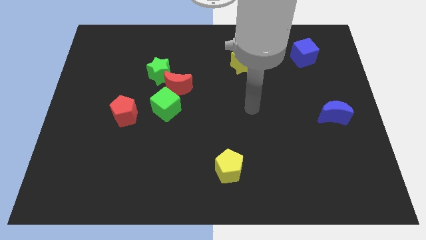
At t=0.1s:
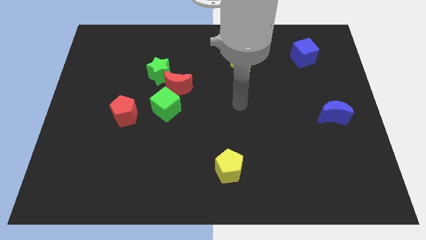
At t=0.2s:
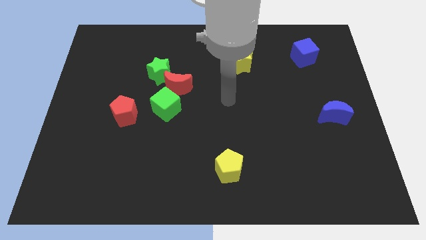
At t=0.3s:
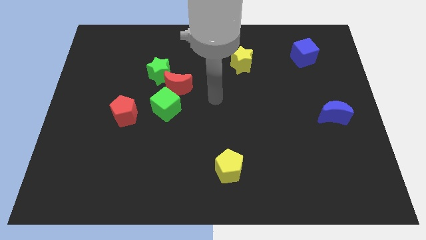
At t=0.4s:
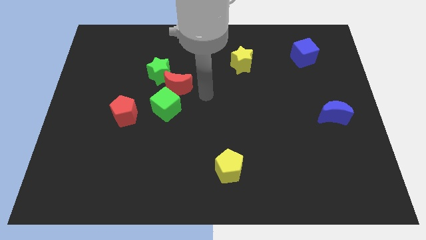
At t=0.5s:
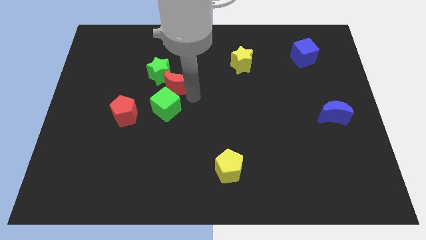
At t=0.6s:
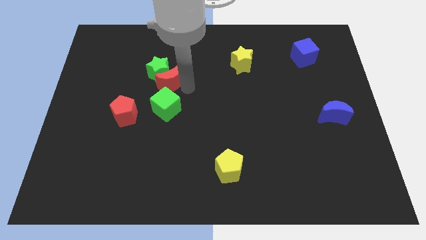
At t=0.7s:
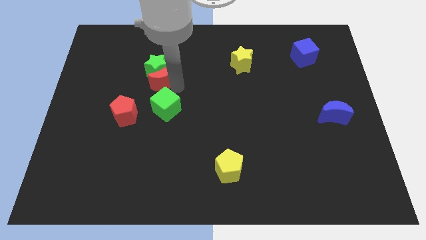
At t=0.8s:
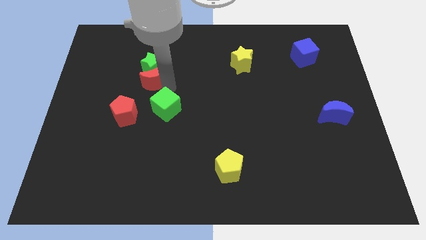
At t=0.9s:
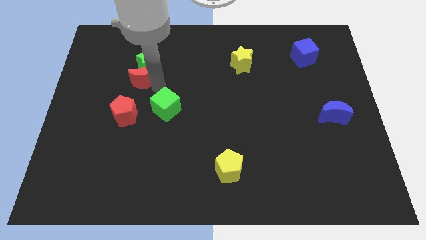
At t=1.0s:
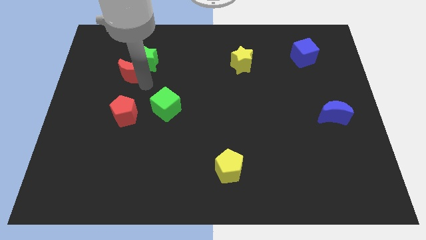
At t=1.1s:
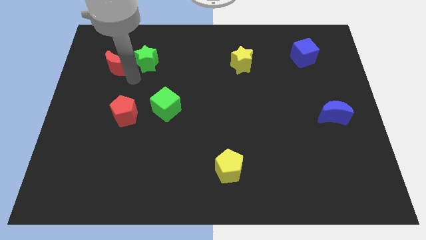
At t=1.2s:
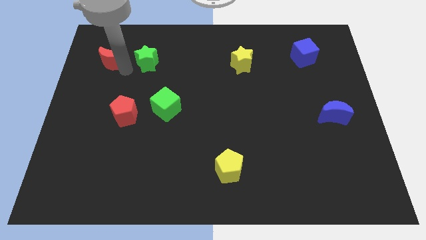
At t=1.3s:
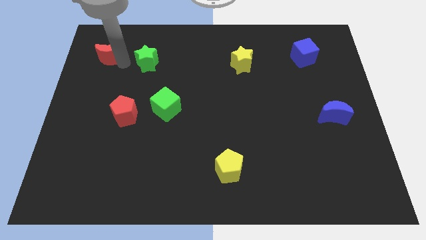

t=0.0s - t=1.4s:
pull the green star apart from the red moon

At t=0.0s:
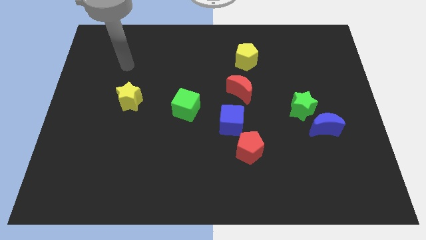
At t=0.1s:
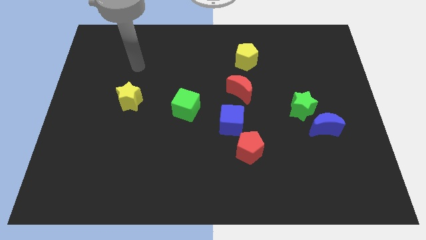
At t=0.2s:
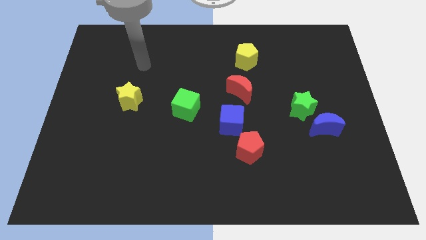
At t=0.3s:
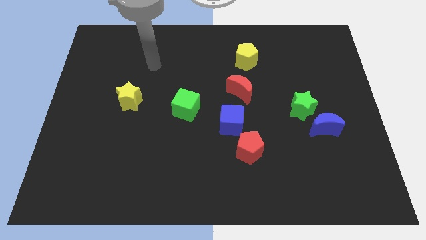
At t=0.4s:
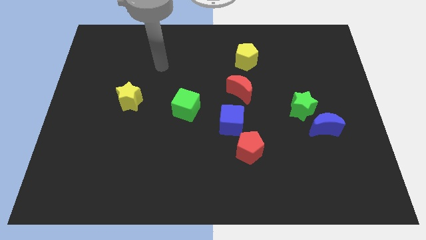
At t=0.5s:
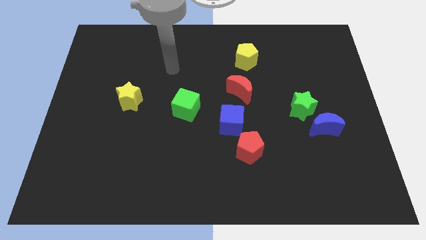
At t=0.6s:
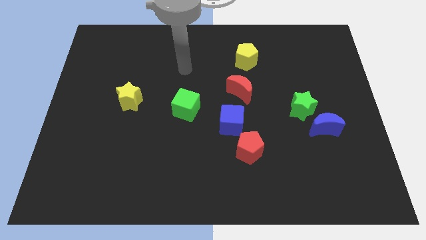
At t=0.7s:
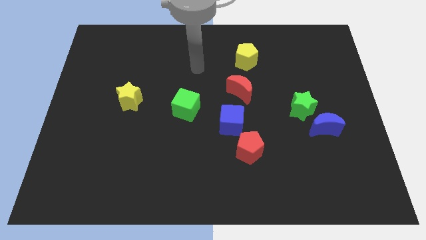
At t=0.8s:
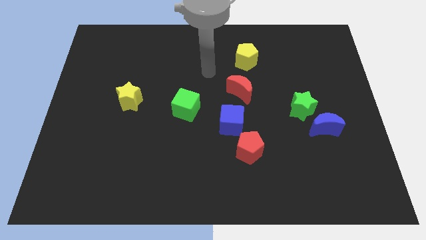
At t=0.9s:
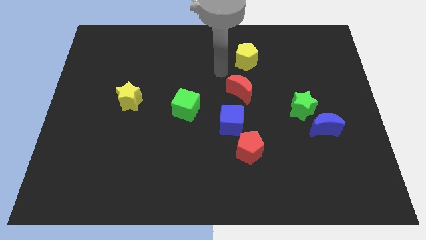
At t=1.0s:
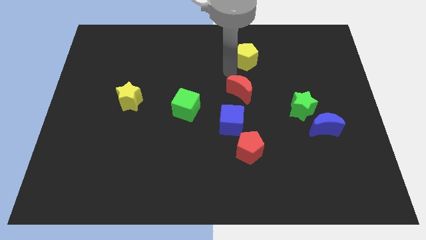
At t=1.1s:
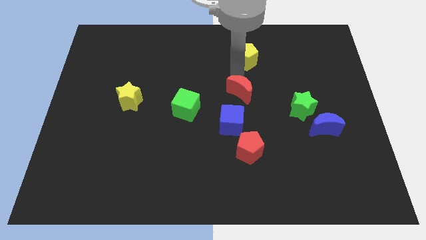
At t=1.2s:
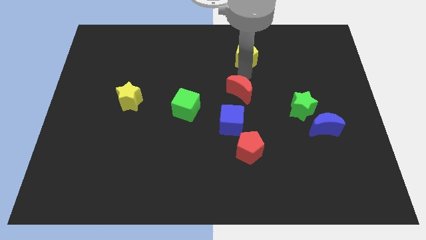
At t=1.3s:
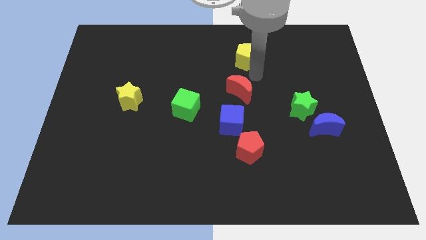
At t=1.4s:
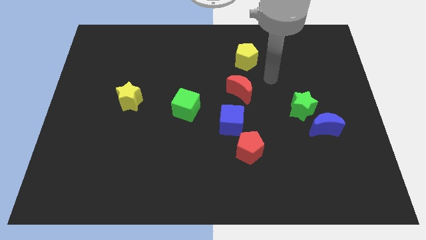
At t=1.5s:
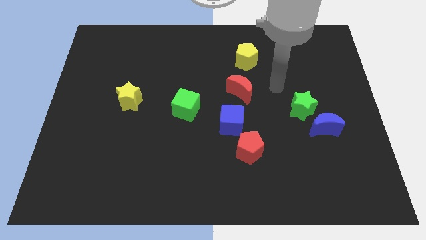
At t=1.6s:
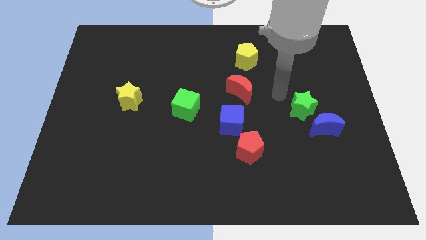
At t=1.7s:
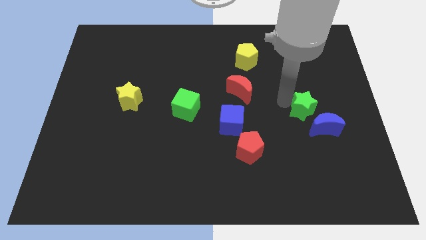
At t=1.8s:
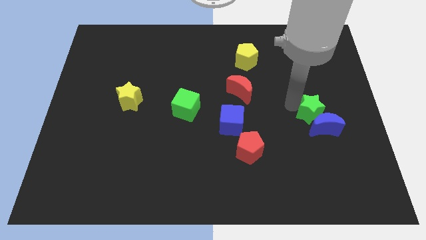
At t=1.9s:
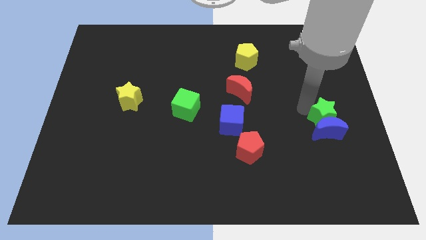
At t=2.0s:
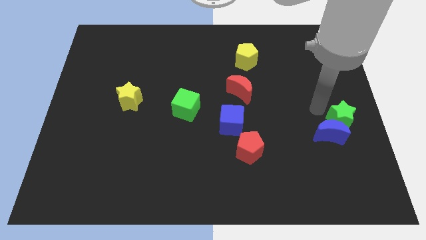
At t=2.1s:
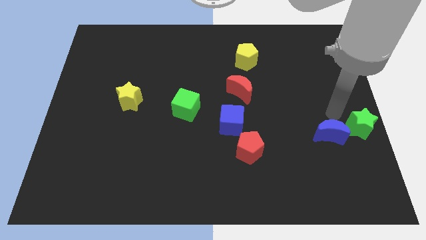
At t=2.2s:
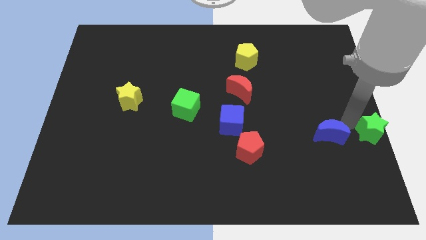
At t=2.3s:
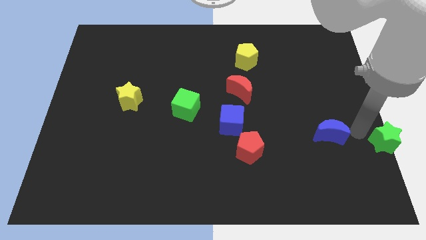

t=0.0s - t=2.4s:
move the blue moon away from the green star

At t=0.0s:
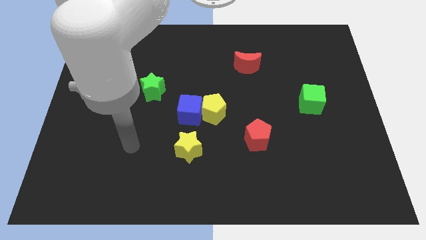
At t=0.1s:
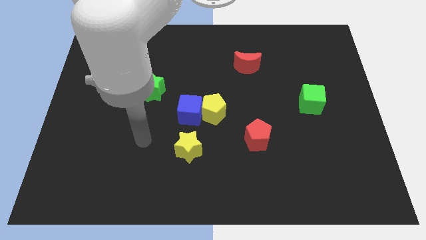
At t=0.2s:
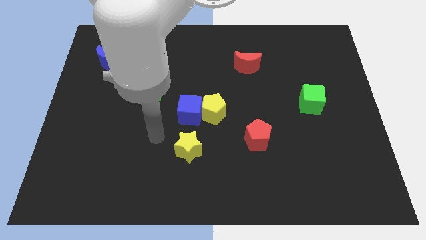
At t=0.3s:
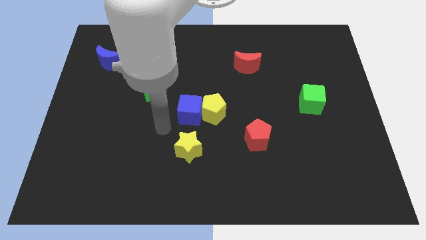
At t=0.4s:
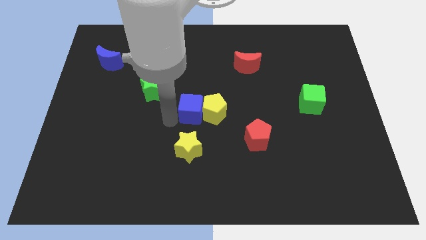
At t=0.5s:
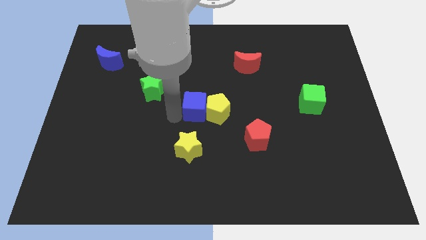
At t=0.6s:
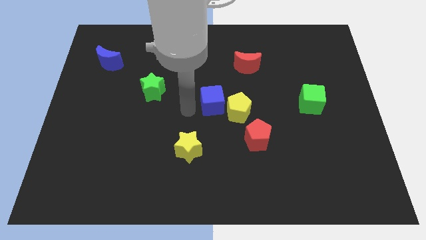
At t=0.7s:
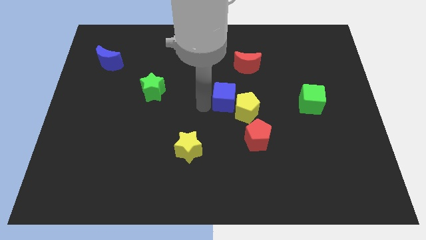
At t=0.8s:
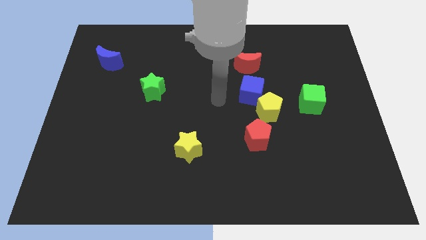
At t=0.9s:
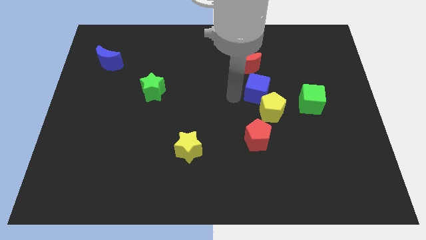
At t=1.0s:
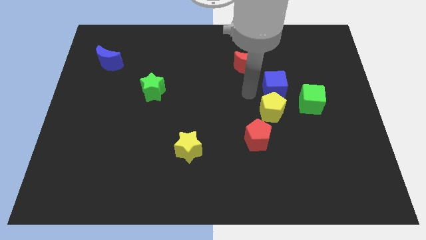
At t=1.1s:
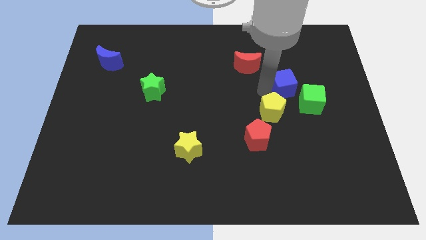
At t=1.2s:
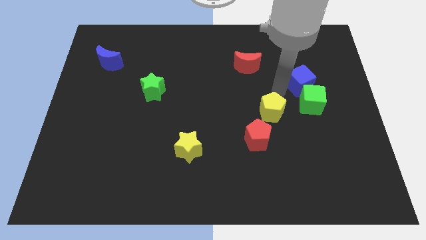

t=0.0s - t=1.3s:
separate the yellow pentagon from the blue cube

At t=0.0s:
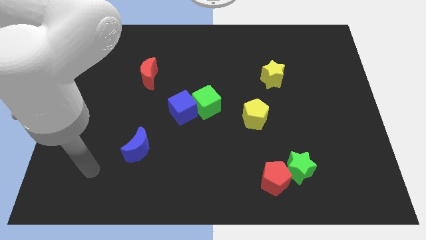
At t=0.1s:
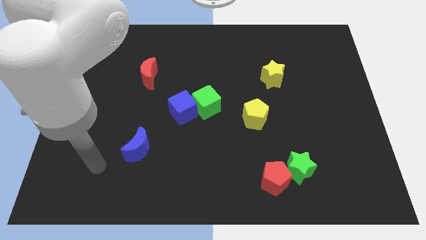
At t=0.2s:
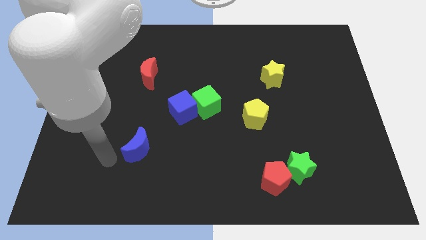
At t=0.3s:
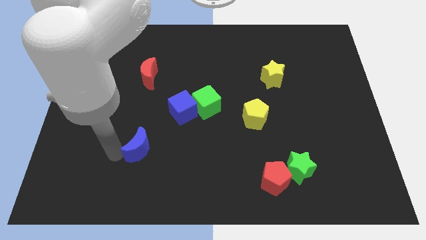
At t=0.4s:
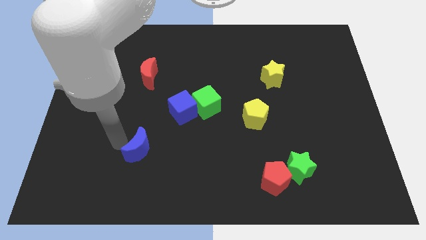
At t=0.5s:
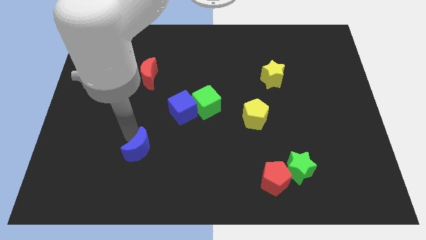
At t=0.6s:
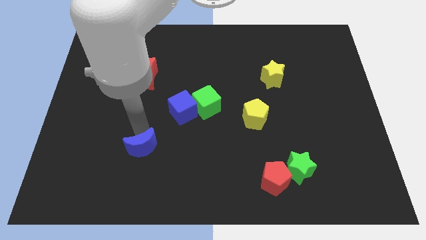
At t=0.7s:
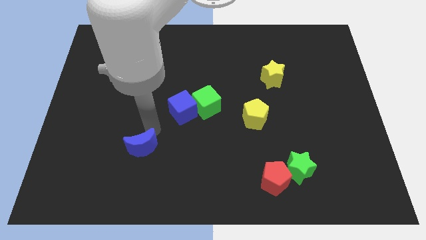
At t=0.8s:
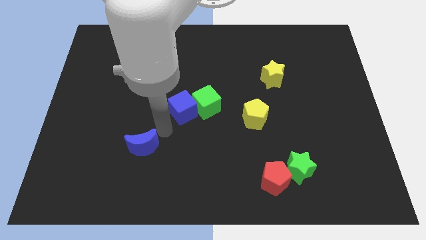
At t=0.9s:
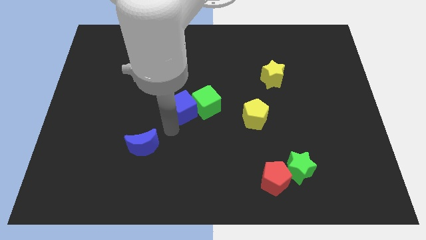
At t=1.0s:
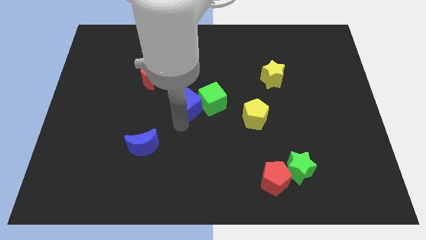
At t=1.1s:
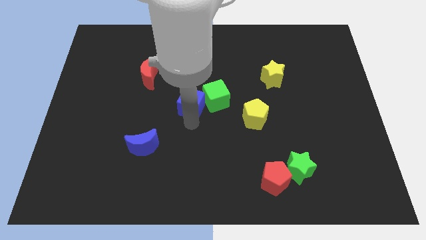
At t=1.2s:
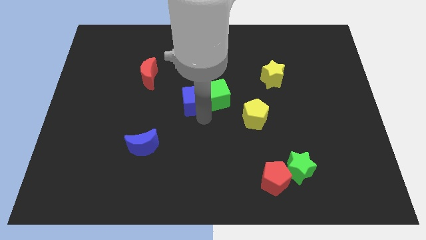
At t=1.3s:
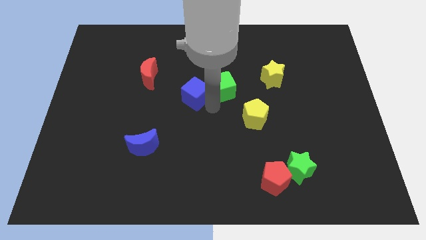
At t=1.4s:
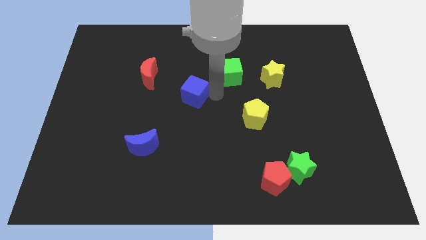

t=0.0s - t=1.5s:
separate the blue cube from the green cube

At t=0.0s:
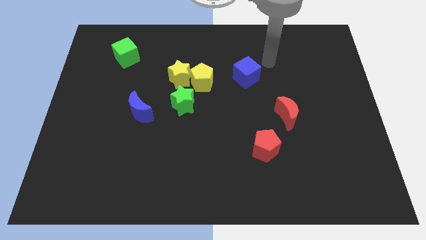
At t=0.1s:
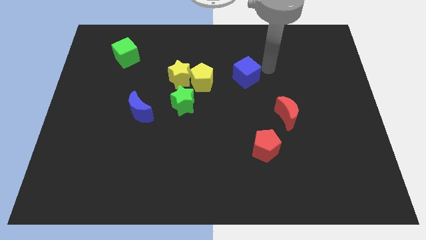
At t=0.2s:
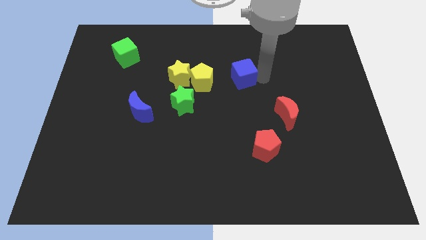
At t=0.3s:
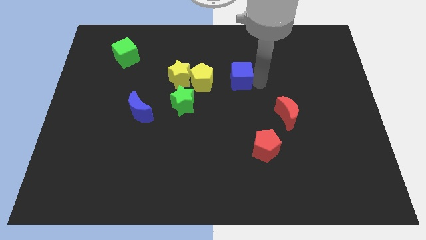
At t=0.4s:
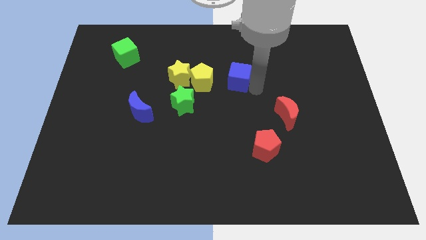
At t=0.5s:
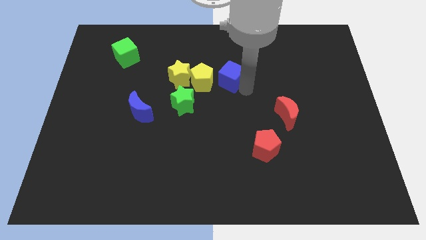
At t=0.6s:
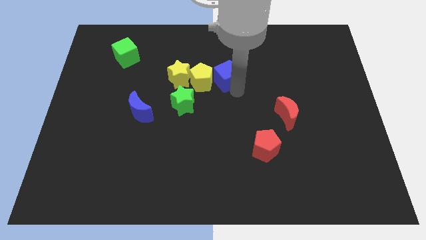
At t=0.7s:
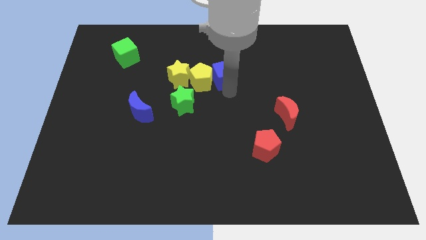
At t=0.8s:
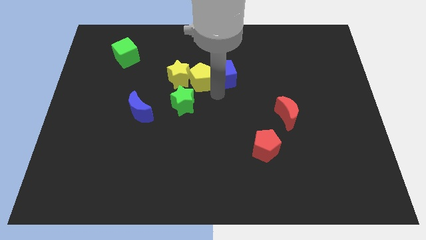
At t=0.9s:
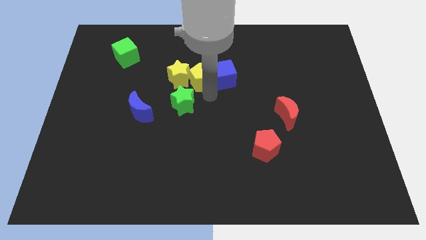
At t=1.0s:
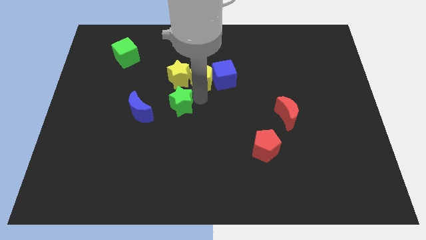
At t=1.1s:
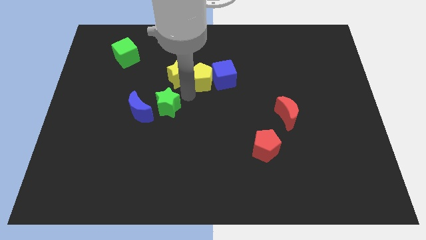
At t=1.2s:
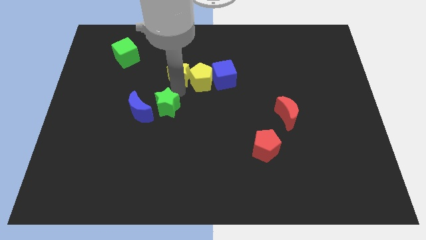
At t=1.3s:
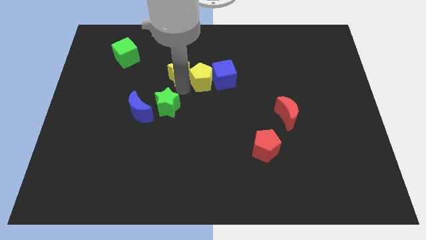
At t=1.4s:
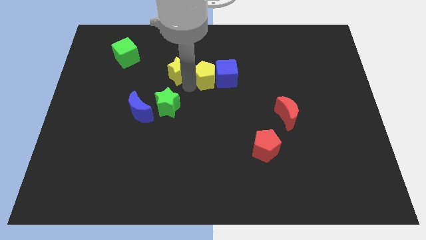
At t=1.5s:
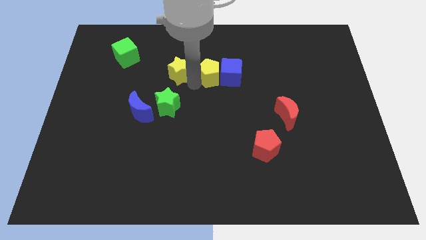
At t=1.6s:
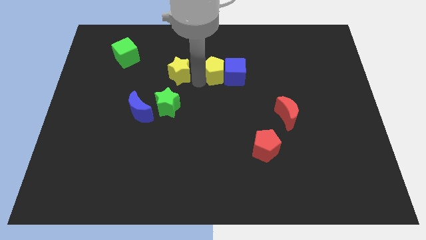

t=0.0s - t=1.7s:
move the yellow pentagon away from the yellow star and green star

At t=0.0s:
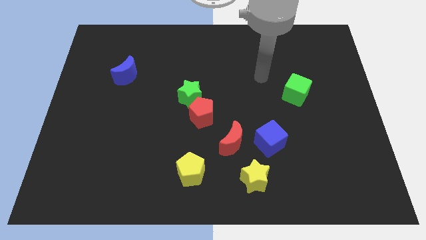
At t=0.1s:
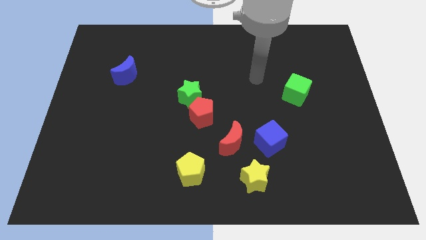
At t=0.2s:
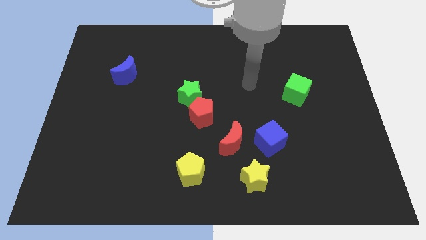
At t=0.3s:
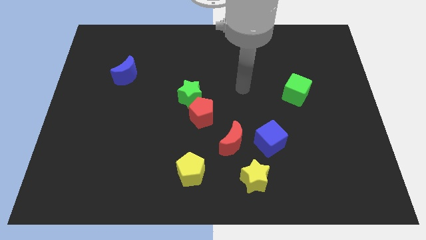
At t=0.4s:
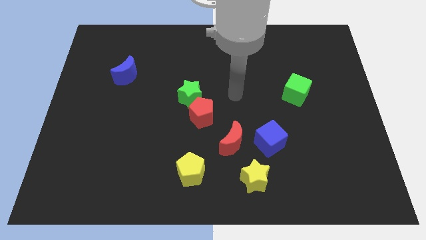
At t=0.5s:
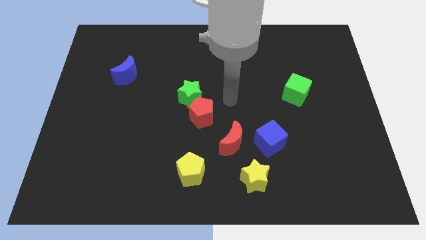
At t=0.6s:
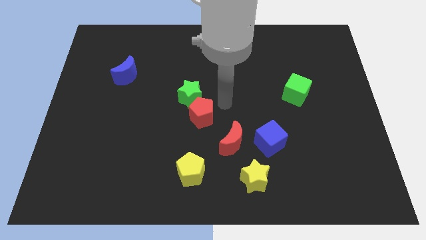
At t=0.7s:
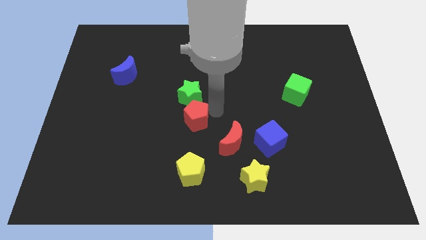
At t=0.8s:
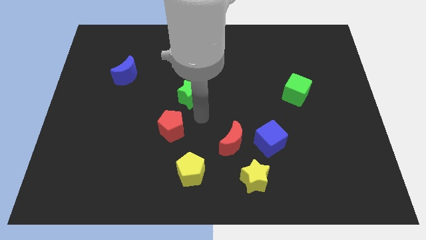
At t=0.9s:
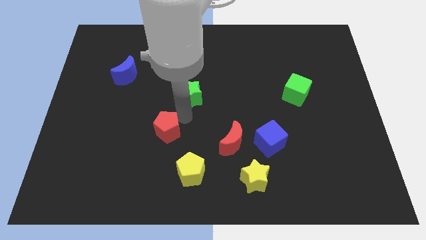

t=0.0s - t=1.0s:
pull the green star apart from the red pentagon

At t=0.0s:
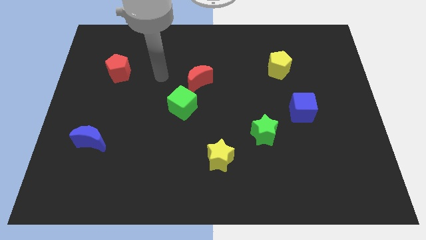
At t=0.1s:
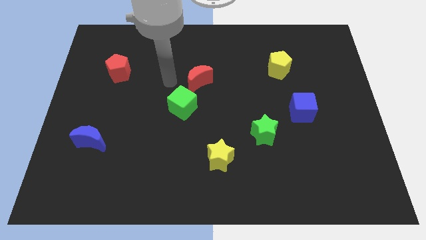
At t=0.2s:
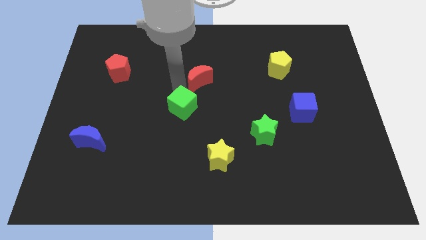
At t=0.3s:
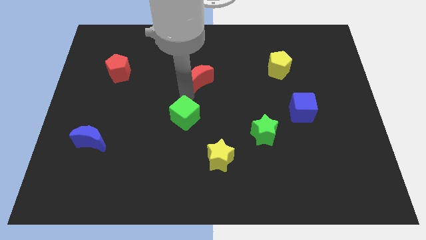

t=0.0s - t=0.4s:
move the red moon away from the green cube
